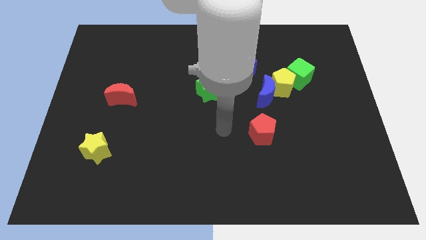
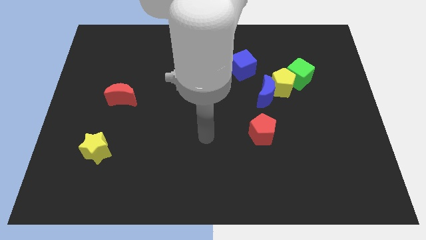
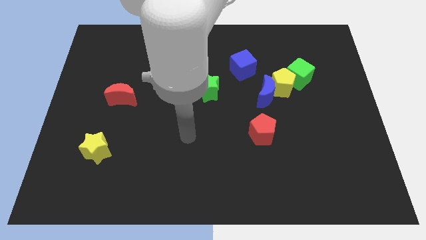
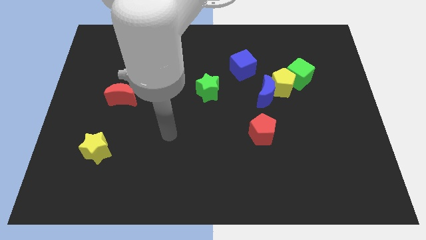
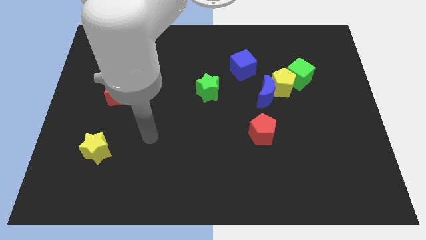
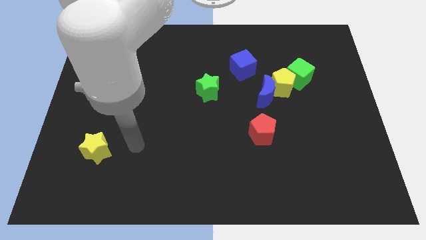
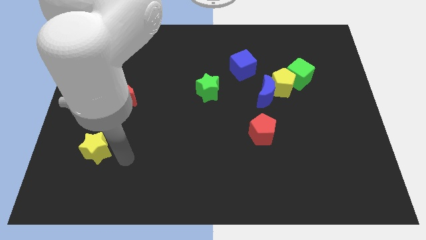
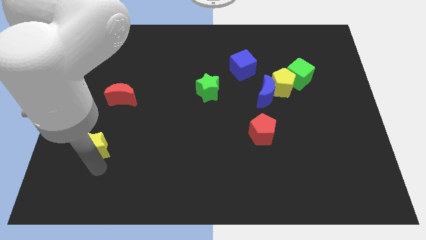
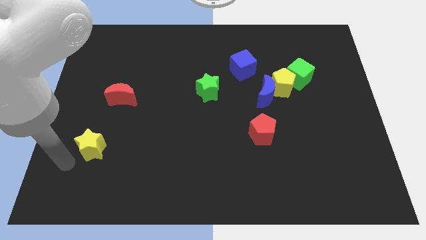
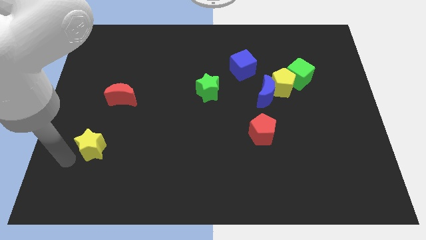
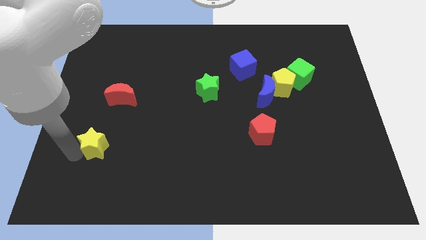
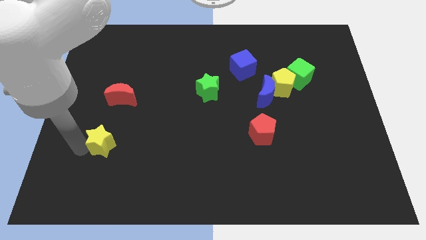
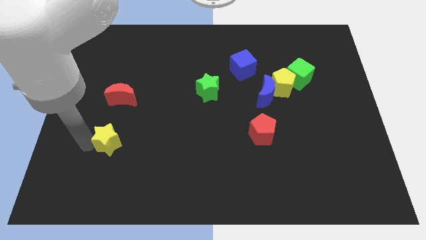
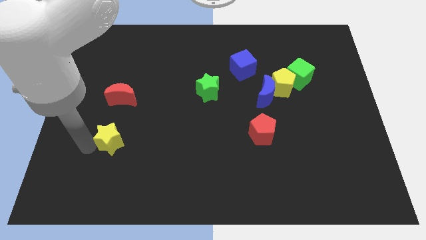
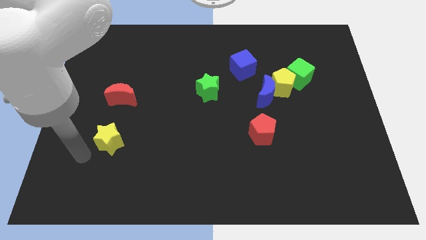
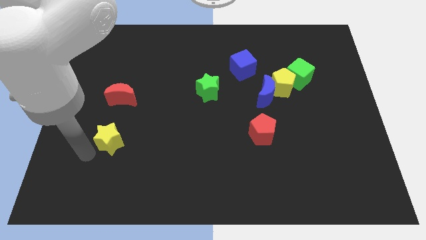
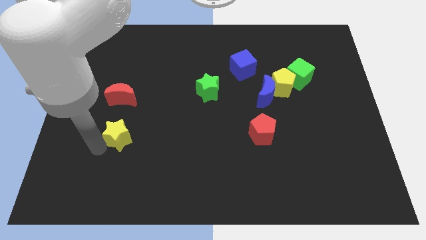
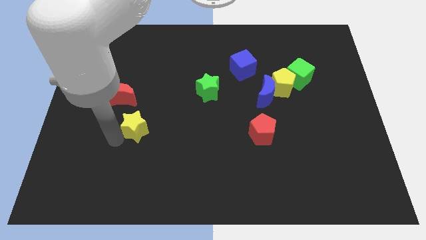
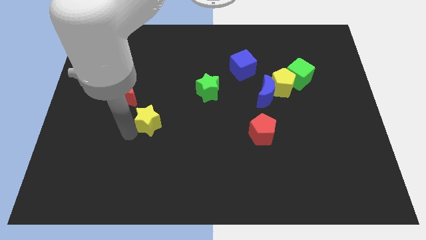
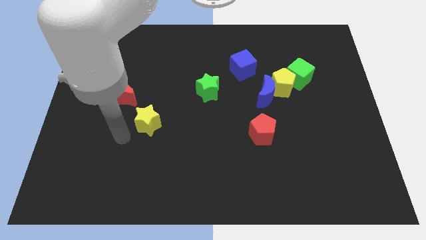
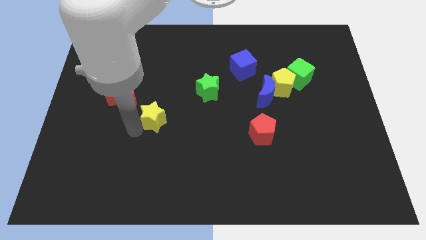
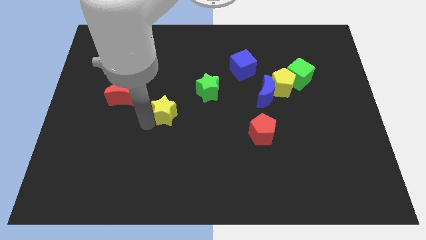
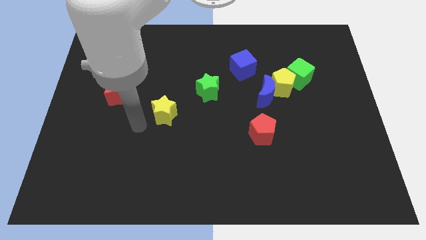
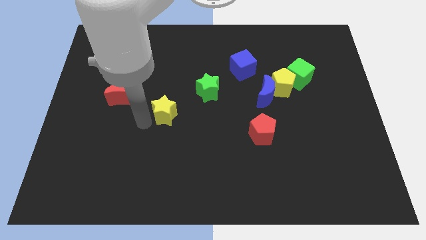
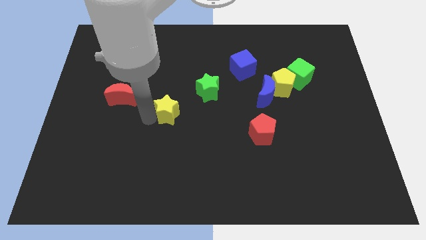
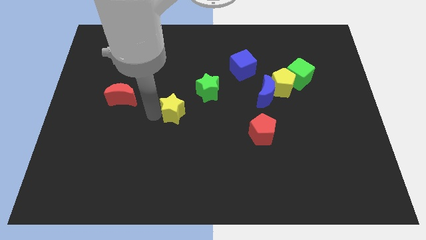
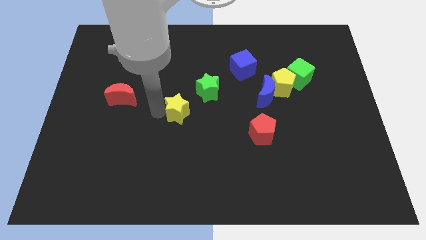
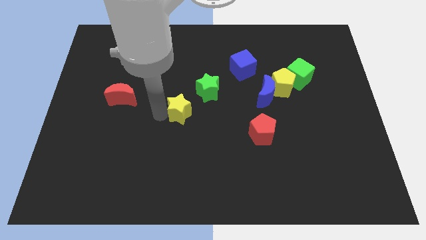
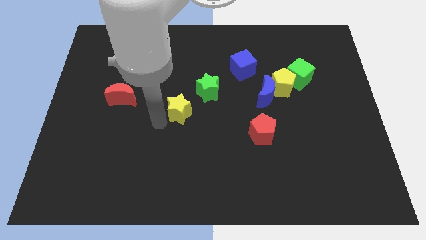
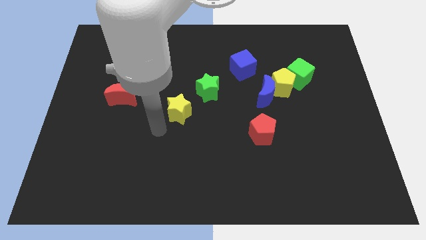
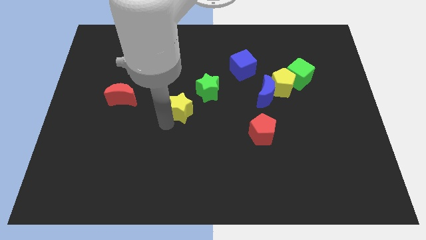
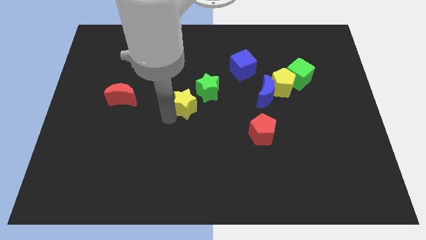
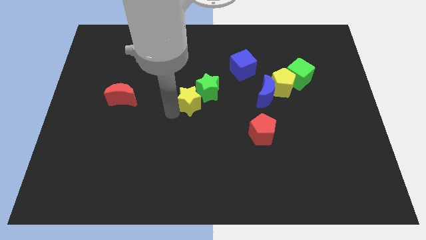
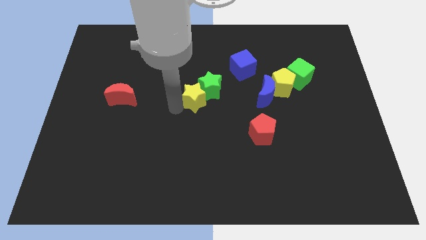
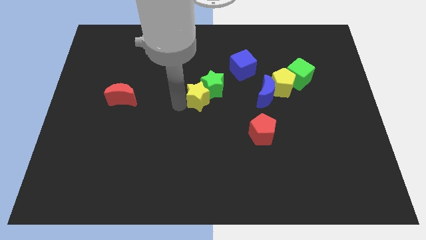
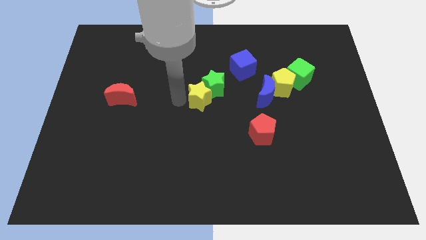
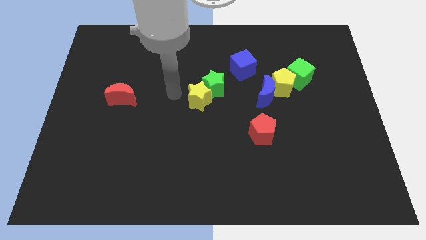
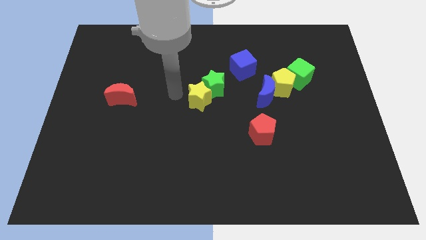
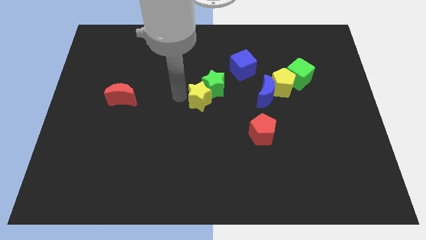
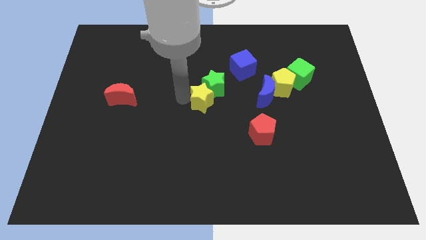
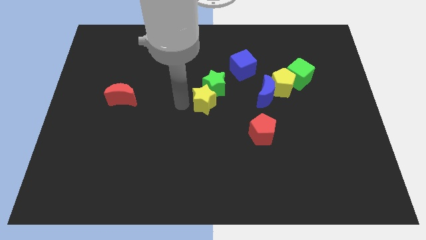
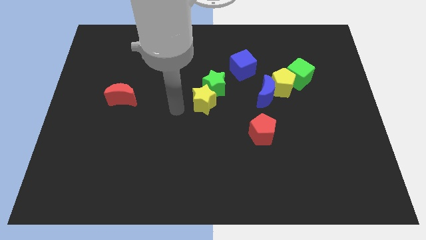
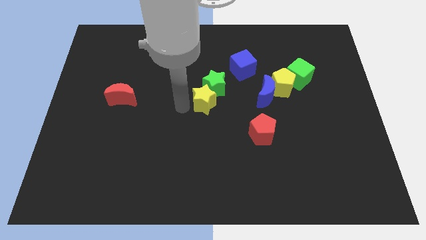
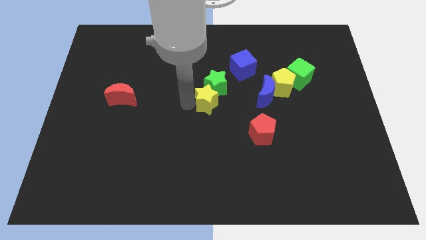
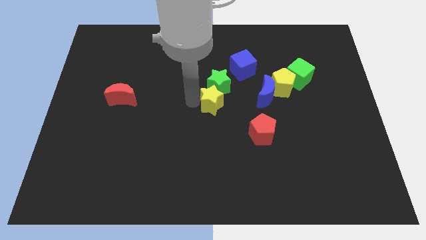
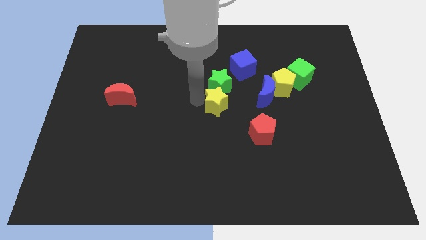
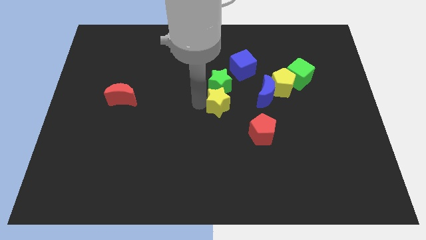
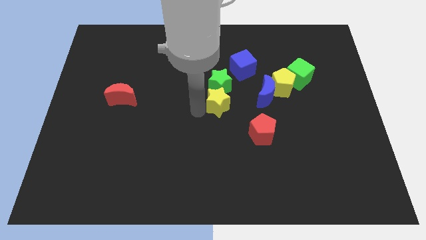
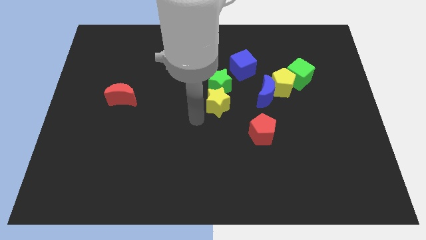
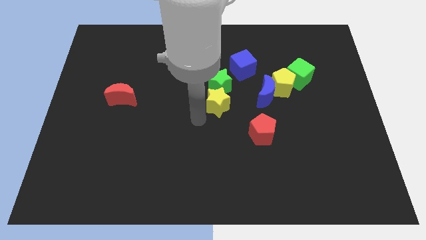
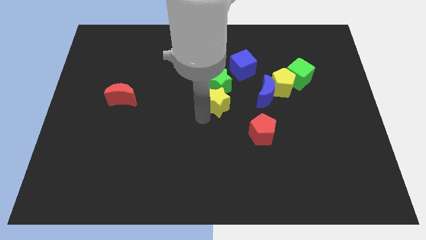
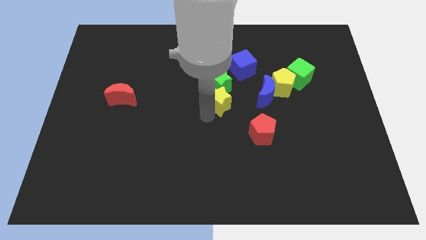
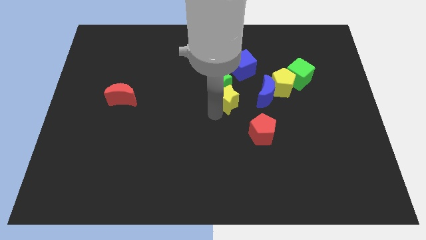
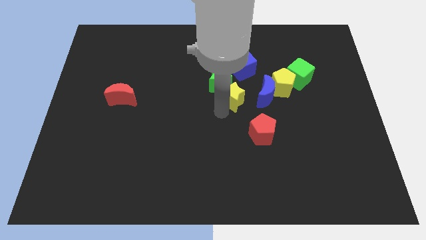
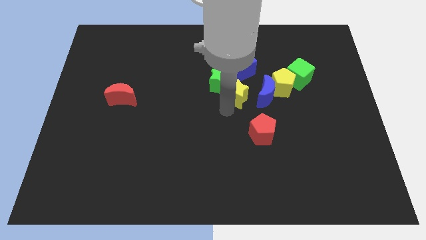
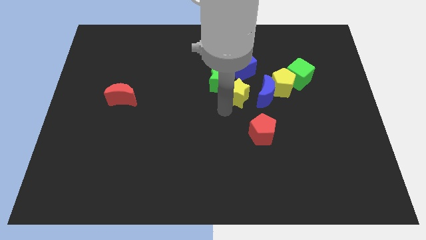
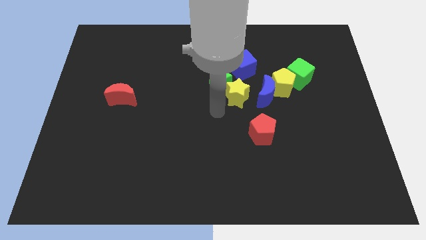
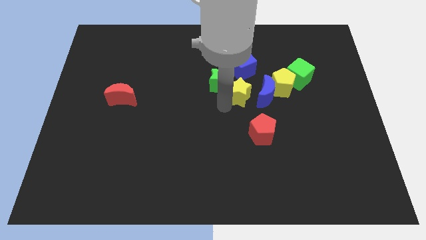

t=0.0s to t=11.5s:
push the yellow star to the top of the red pentagon

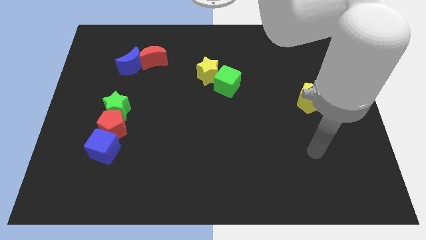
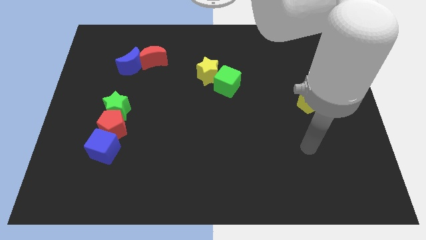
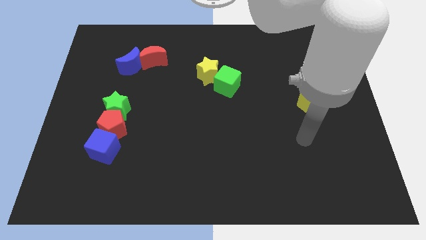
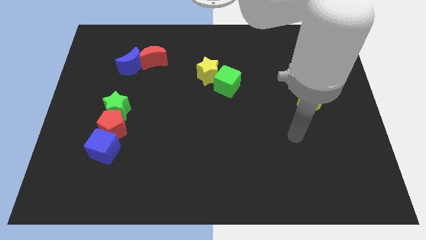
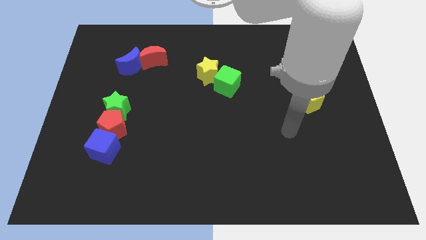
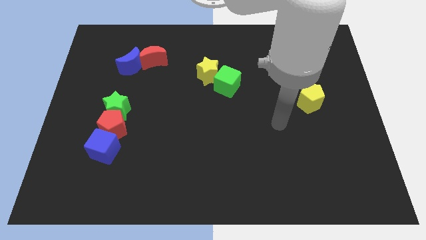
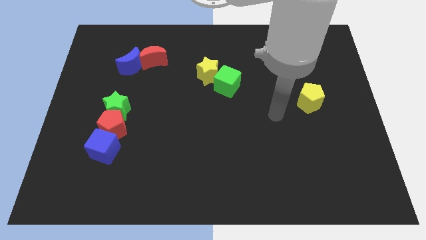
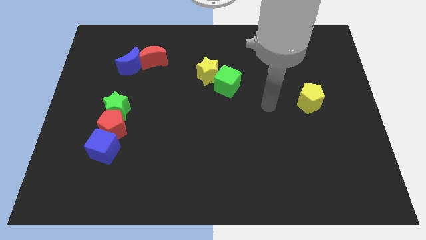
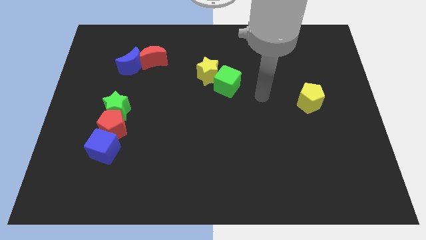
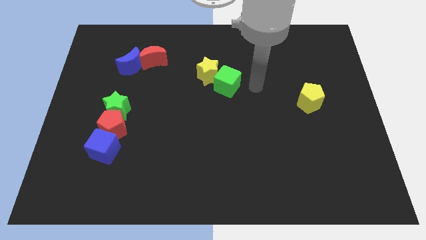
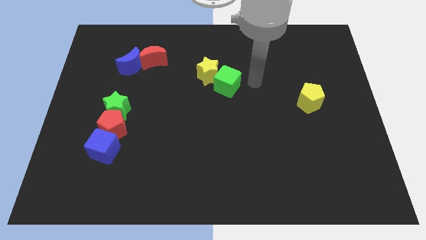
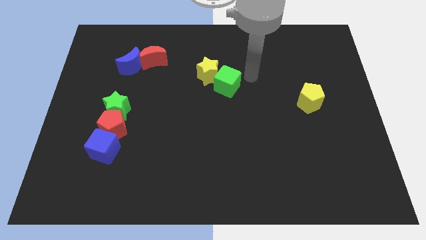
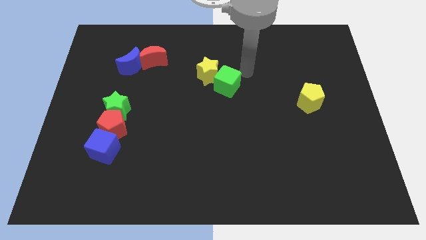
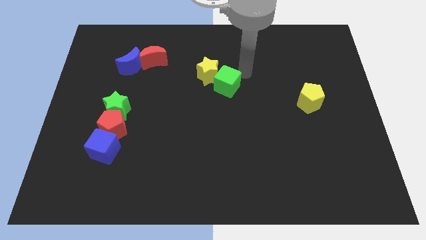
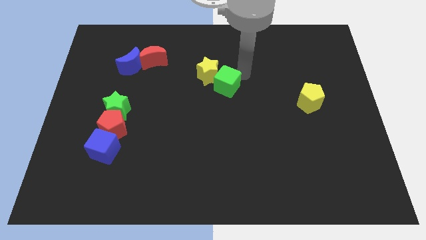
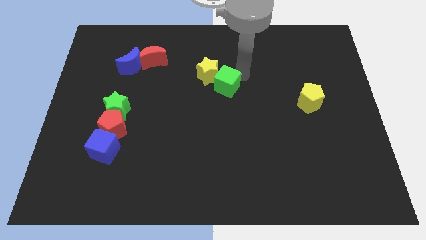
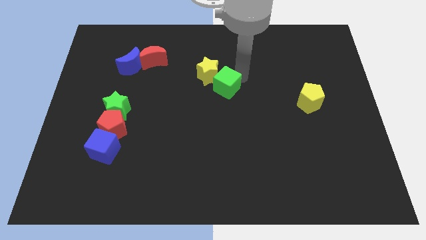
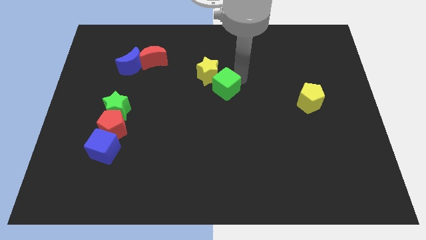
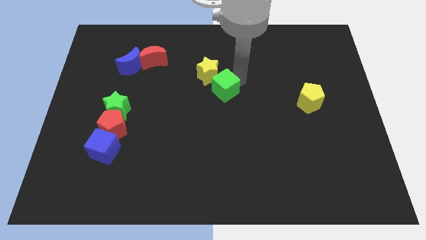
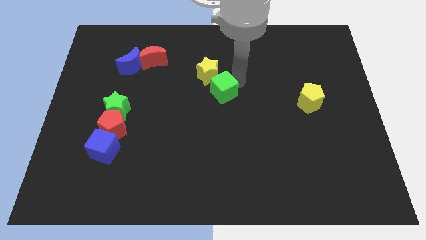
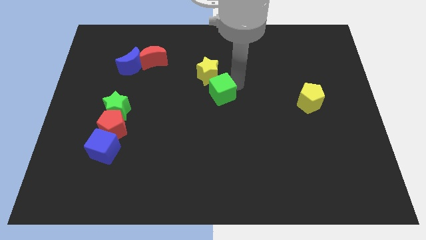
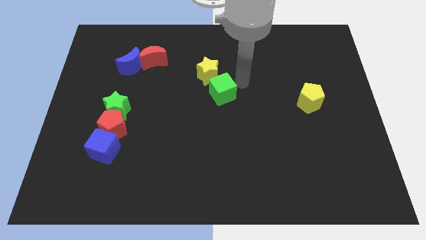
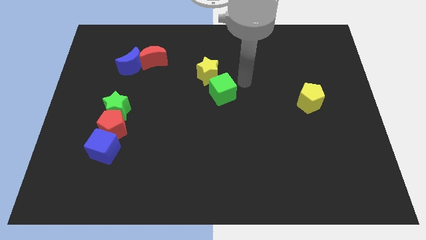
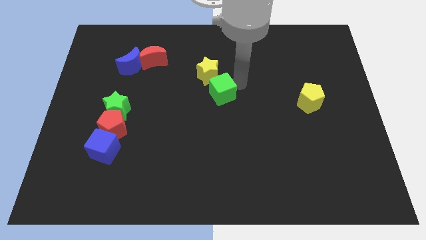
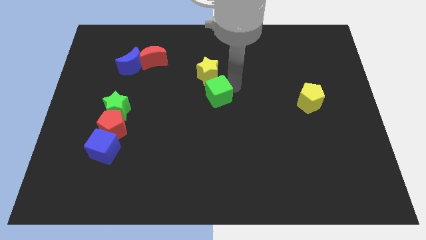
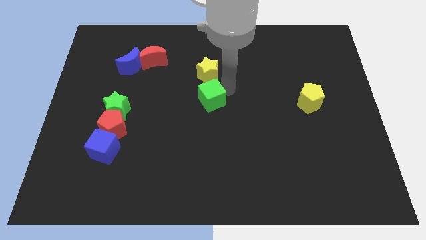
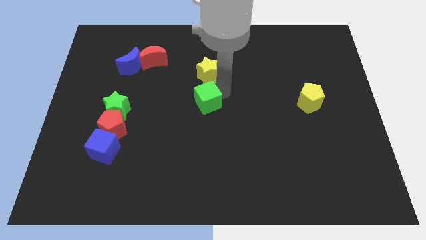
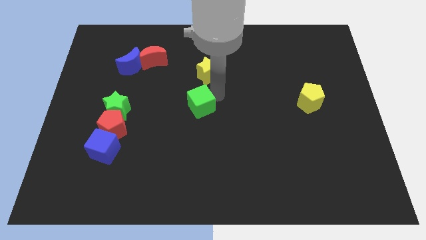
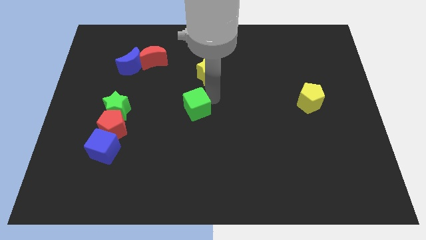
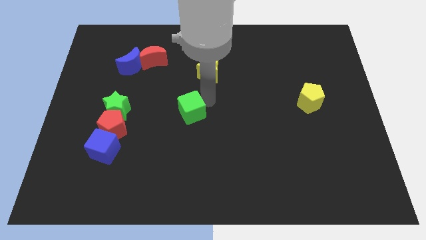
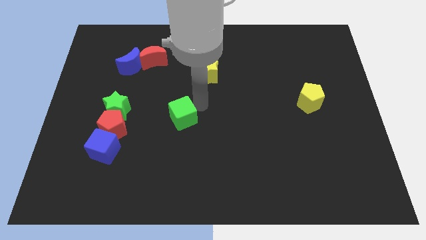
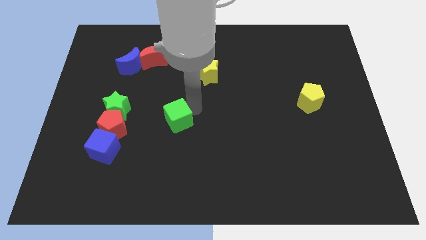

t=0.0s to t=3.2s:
move the green cube to the right side of the red pentagon
